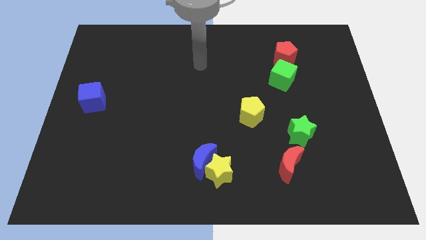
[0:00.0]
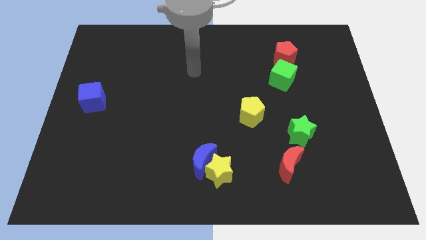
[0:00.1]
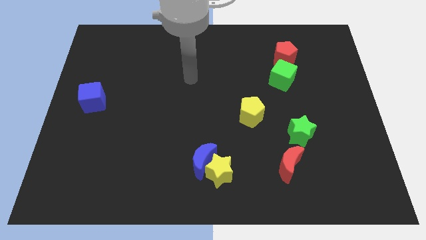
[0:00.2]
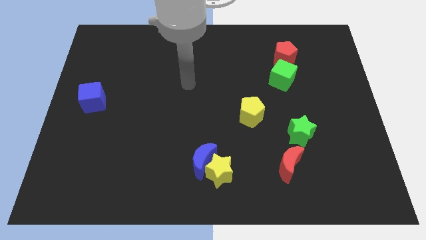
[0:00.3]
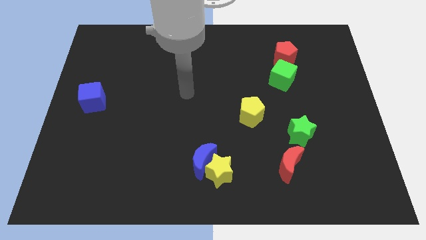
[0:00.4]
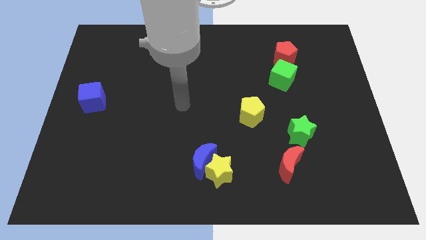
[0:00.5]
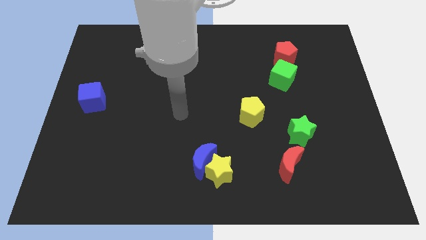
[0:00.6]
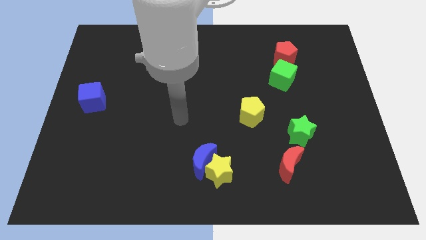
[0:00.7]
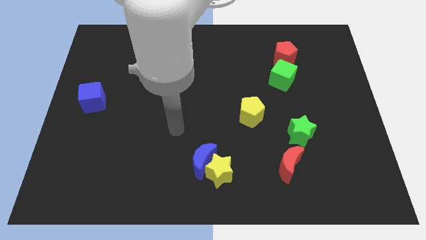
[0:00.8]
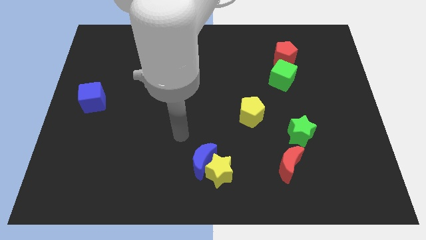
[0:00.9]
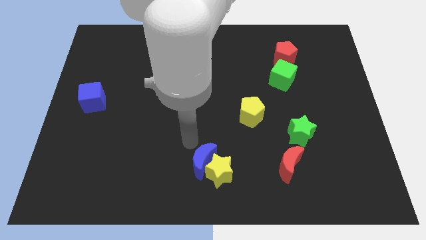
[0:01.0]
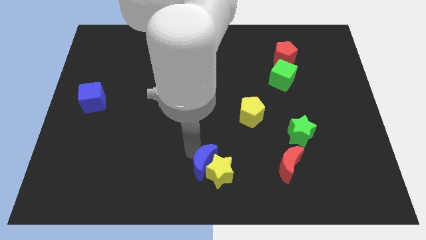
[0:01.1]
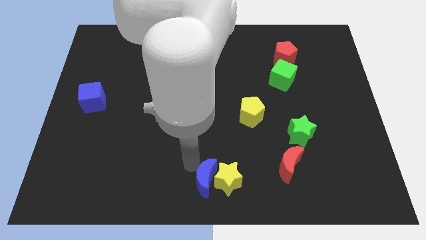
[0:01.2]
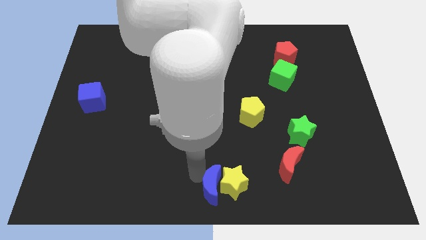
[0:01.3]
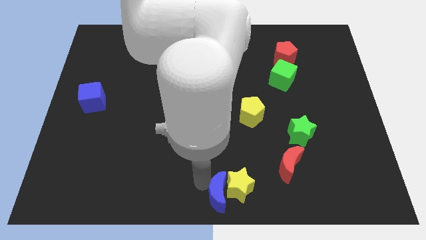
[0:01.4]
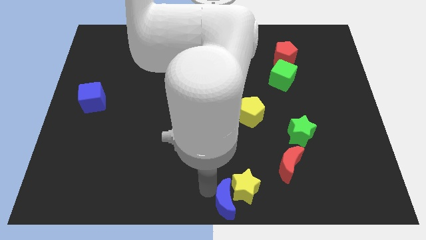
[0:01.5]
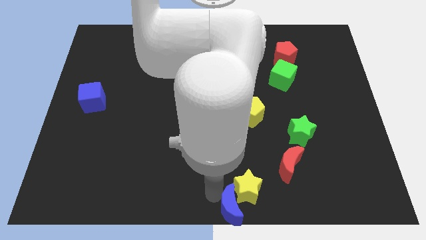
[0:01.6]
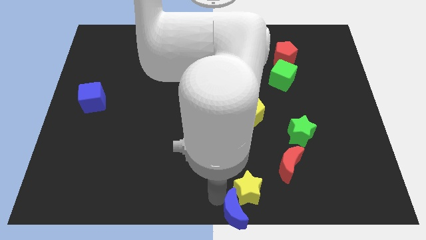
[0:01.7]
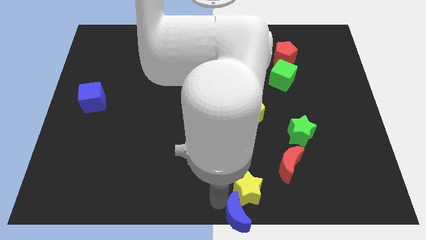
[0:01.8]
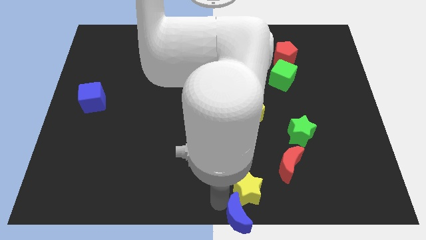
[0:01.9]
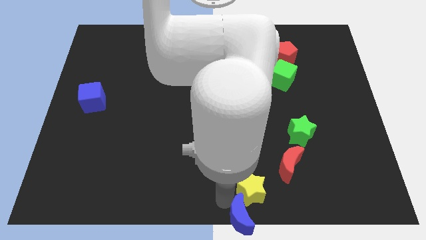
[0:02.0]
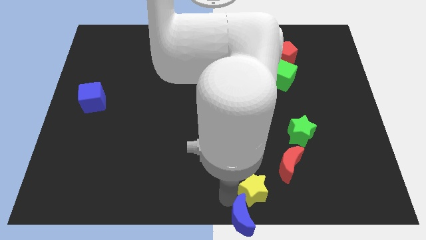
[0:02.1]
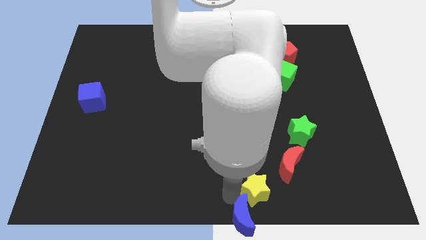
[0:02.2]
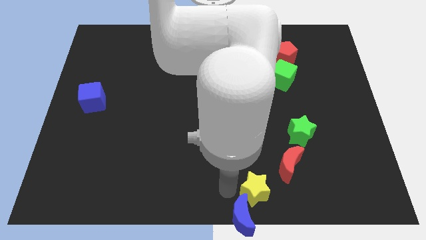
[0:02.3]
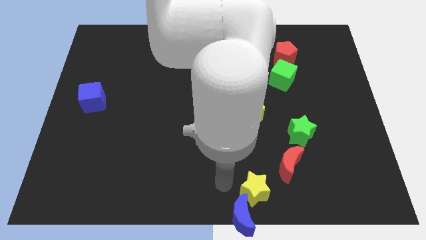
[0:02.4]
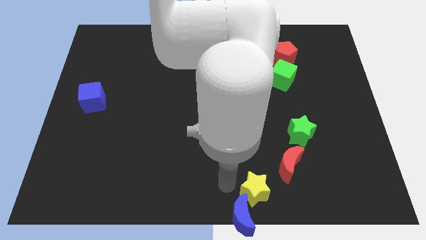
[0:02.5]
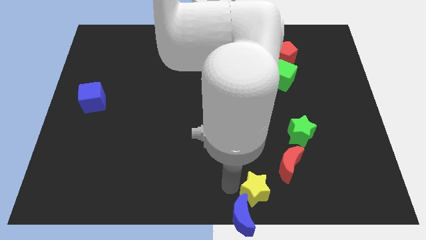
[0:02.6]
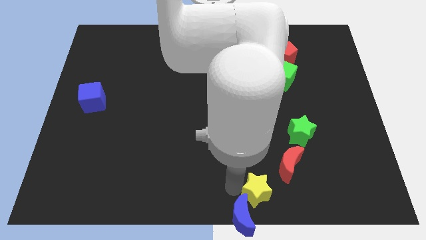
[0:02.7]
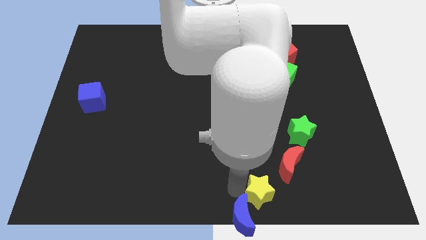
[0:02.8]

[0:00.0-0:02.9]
push the yellow star somewhat right

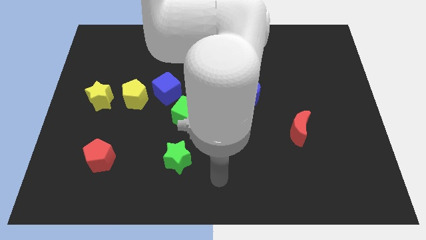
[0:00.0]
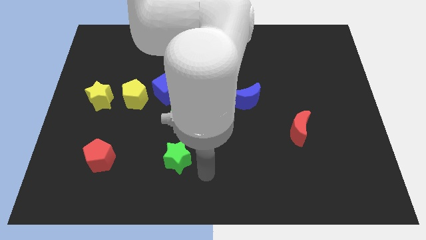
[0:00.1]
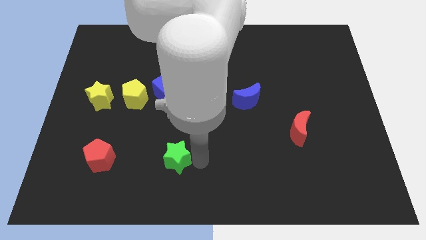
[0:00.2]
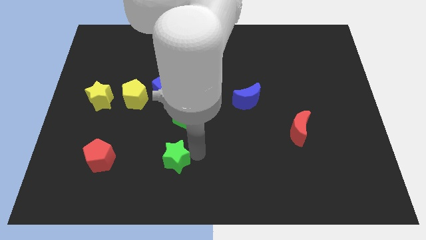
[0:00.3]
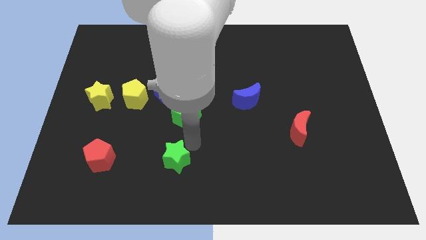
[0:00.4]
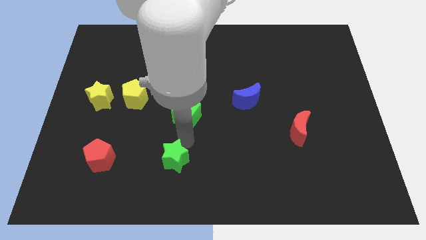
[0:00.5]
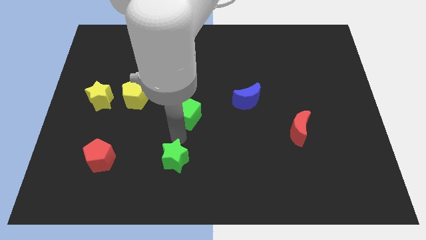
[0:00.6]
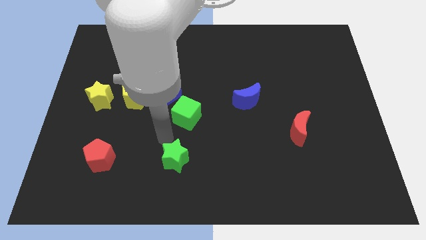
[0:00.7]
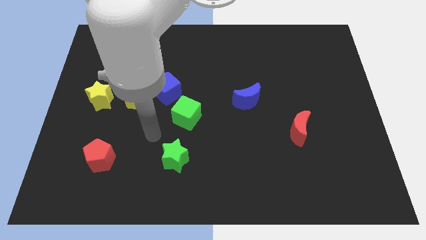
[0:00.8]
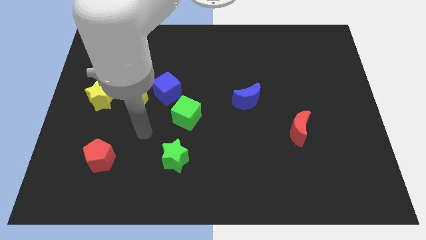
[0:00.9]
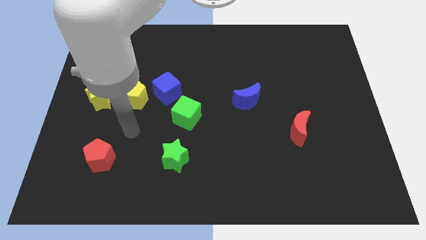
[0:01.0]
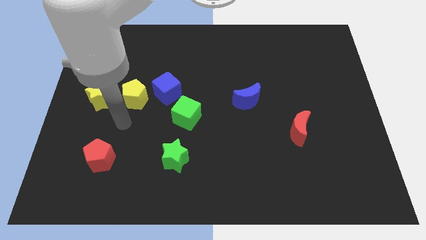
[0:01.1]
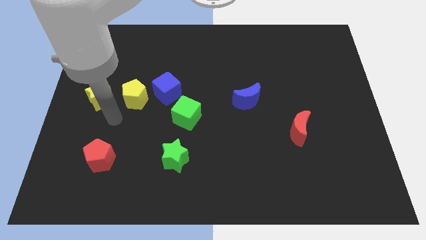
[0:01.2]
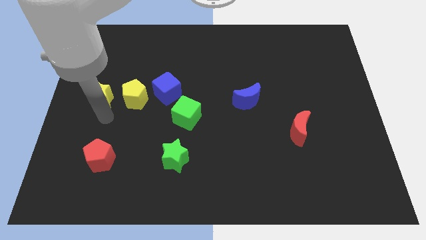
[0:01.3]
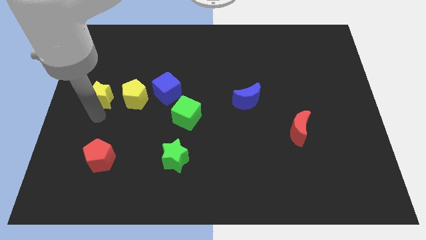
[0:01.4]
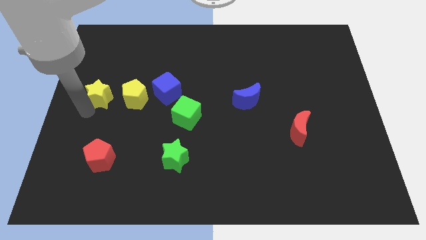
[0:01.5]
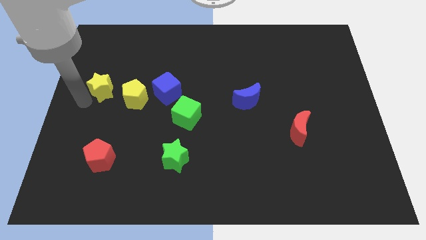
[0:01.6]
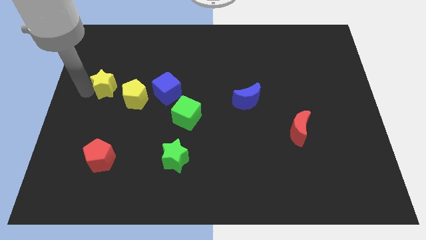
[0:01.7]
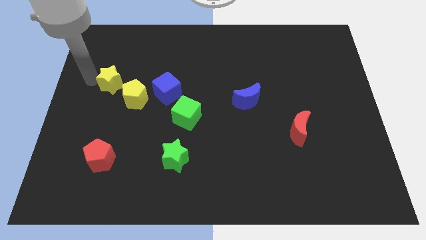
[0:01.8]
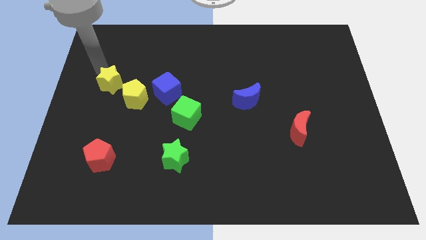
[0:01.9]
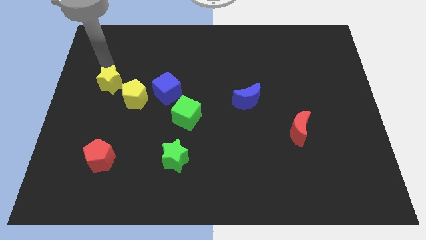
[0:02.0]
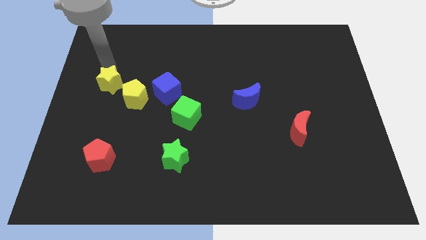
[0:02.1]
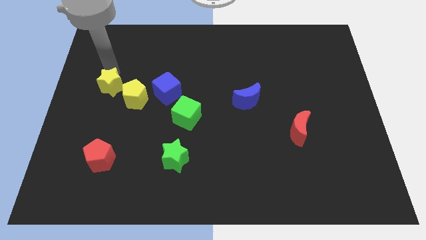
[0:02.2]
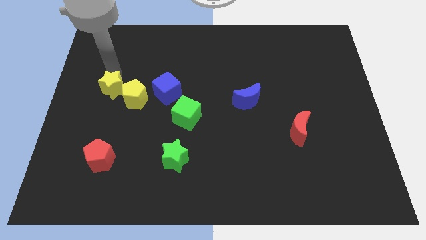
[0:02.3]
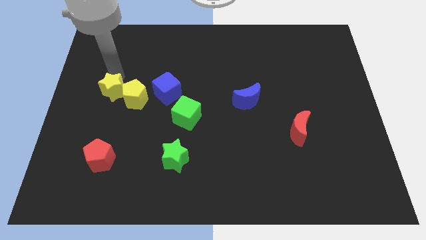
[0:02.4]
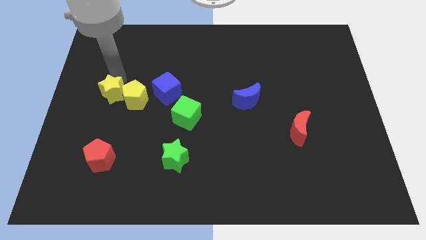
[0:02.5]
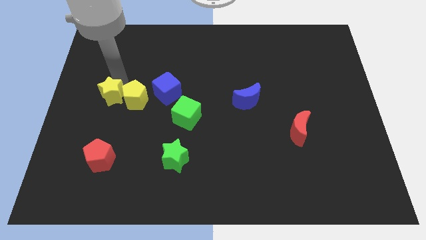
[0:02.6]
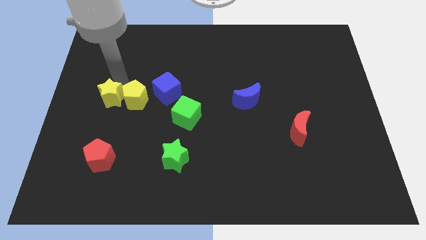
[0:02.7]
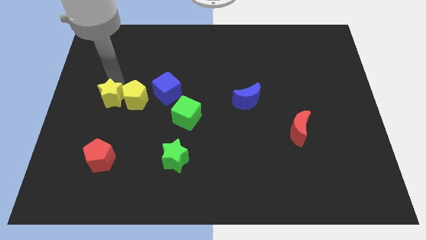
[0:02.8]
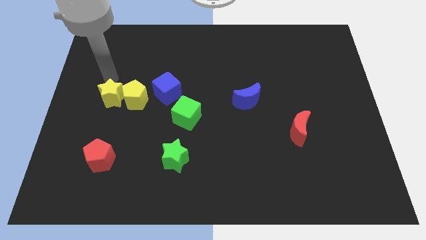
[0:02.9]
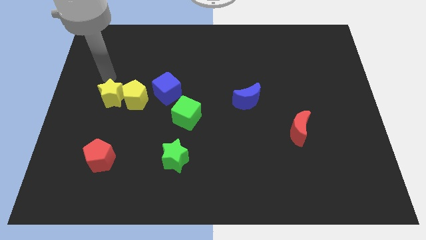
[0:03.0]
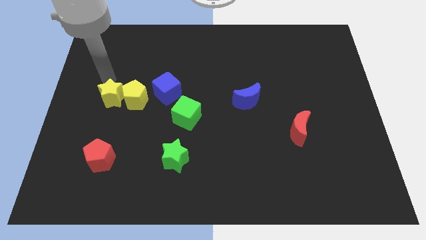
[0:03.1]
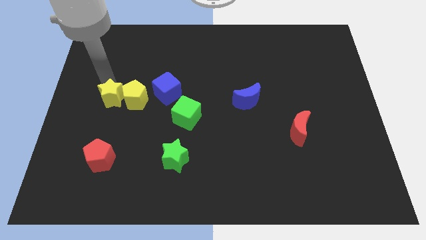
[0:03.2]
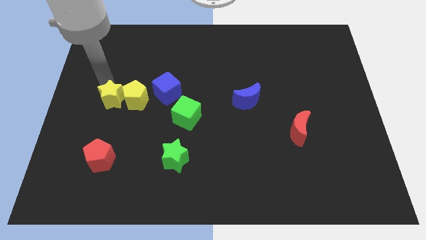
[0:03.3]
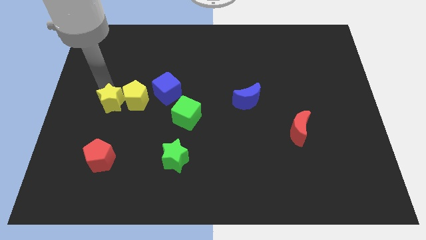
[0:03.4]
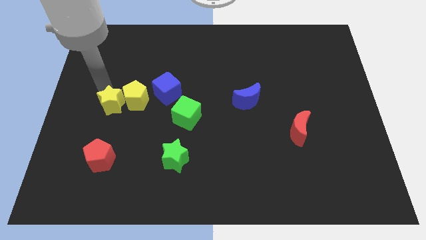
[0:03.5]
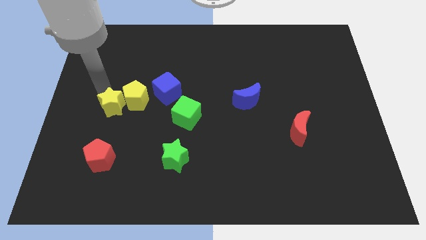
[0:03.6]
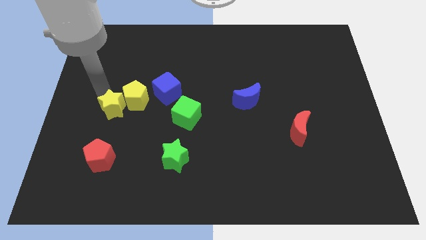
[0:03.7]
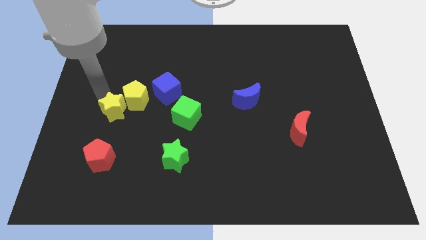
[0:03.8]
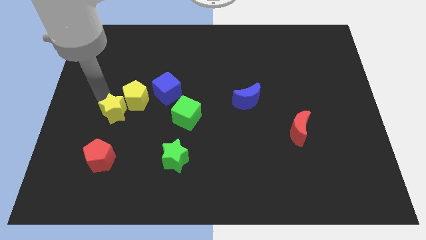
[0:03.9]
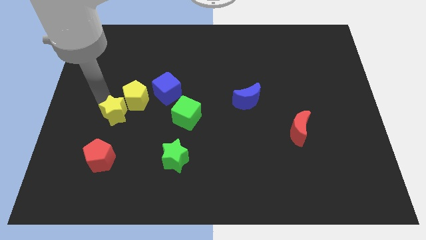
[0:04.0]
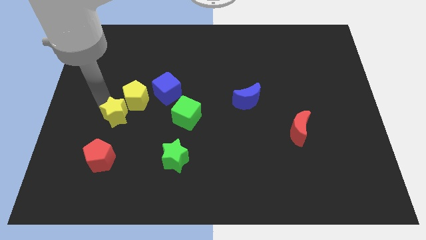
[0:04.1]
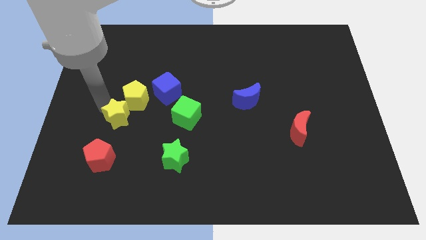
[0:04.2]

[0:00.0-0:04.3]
slightly move the yellow star down and then to the right

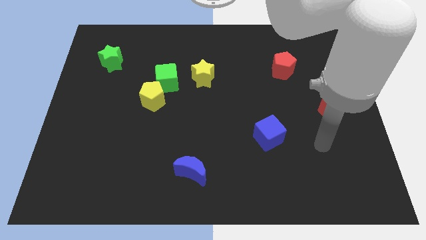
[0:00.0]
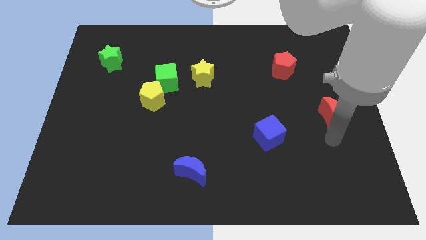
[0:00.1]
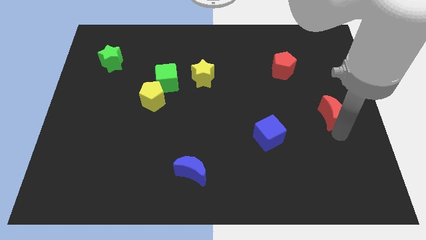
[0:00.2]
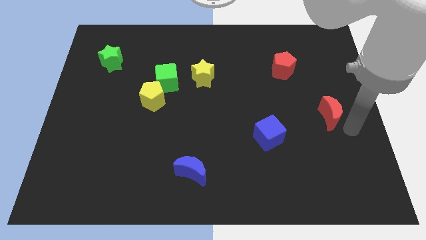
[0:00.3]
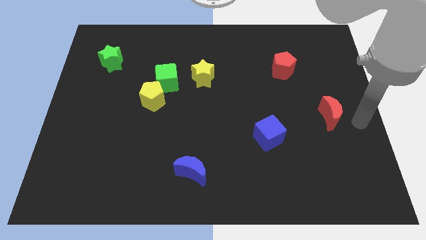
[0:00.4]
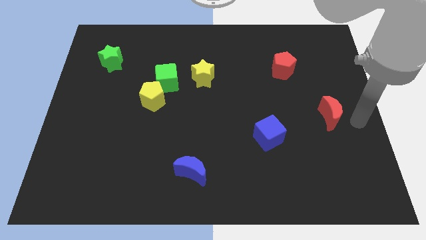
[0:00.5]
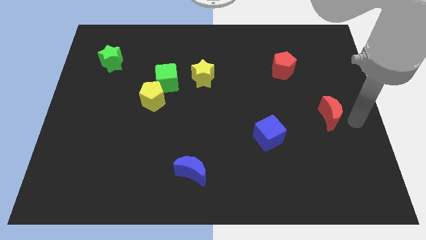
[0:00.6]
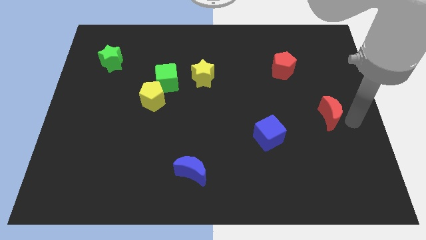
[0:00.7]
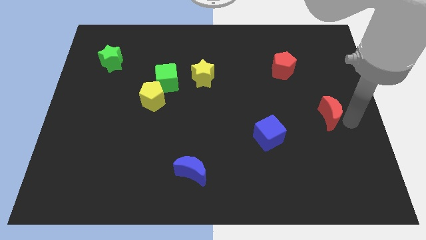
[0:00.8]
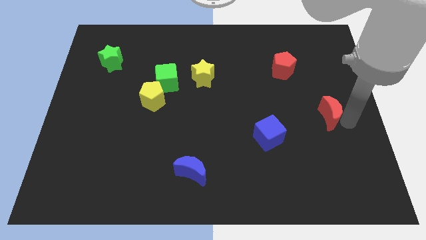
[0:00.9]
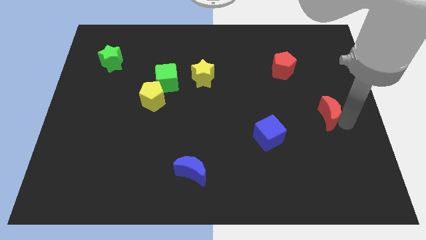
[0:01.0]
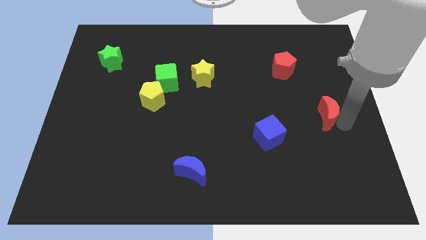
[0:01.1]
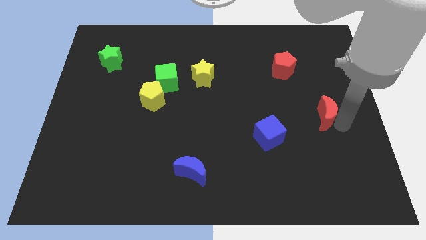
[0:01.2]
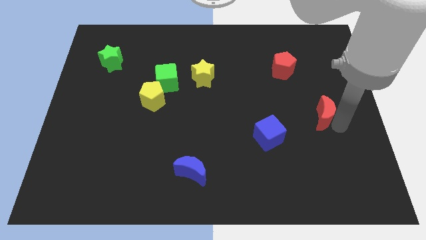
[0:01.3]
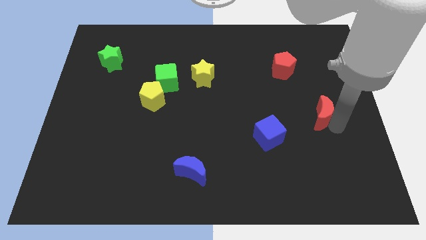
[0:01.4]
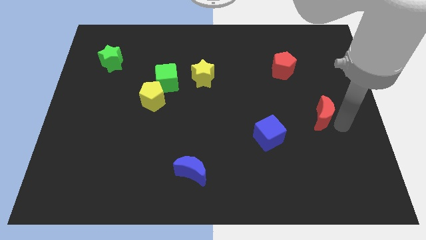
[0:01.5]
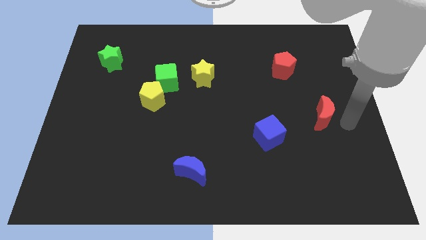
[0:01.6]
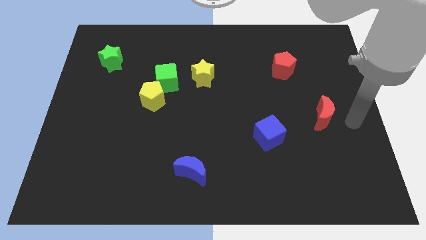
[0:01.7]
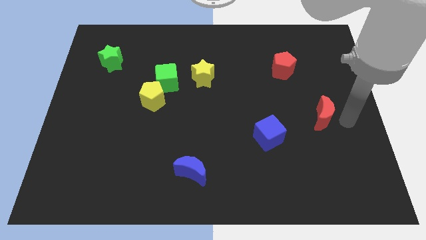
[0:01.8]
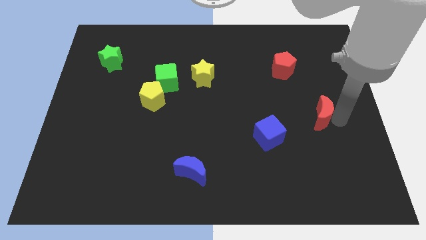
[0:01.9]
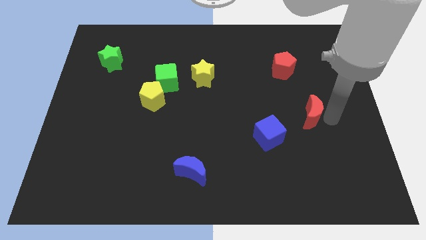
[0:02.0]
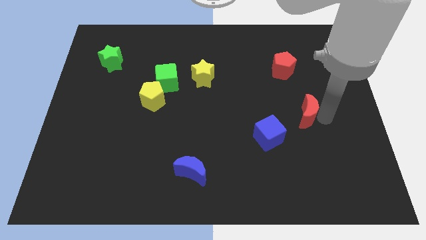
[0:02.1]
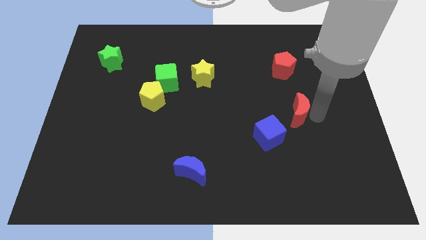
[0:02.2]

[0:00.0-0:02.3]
slightly move the red moon to the left
